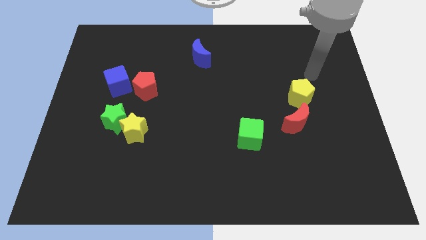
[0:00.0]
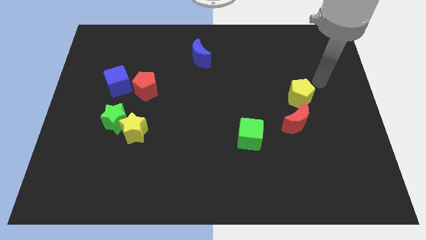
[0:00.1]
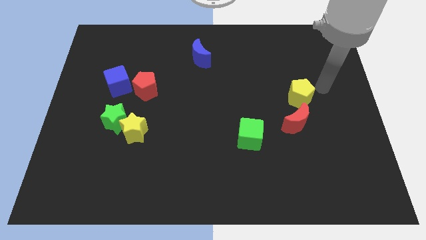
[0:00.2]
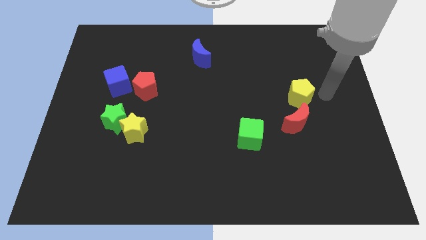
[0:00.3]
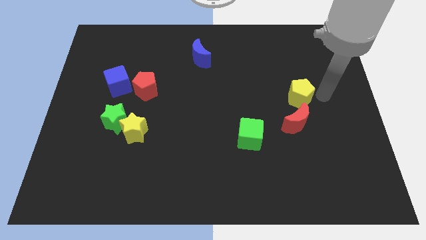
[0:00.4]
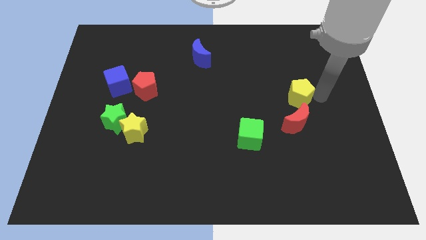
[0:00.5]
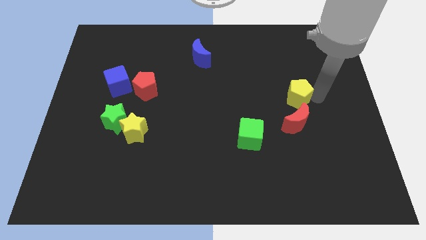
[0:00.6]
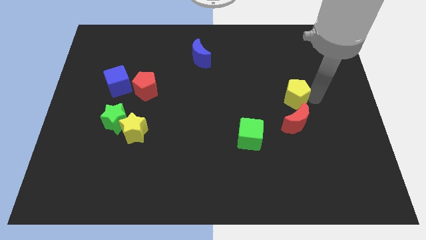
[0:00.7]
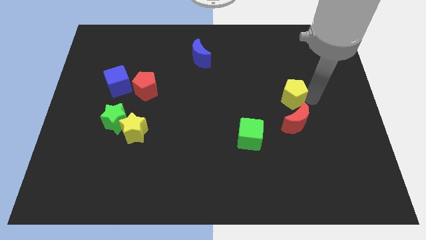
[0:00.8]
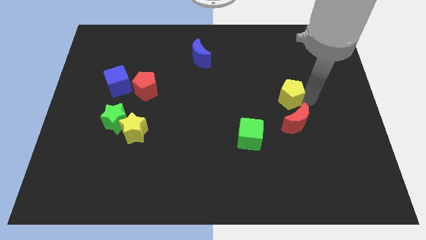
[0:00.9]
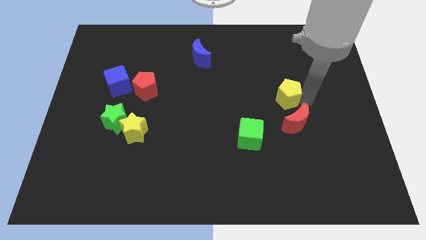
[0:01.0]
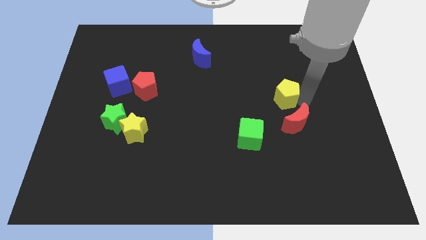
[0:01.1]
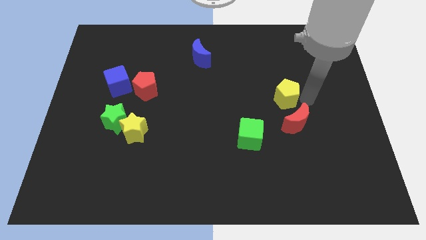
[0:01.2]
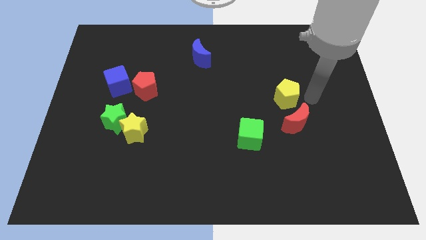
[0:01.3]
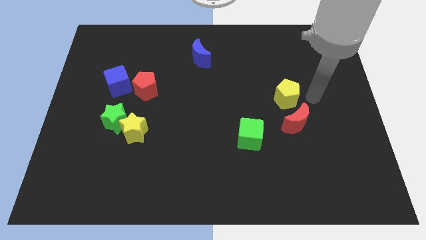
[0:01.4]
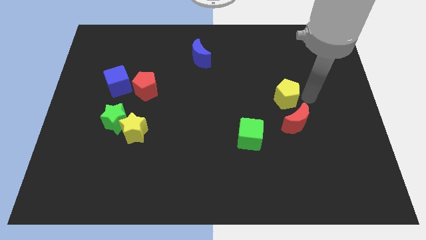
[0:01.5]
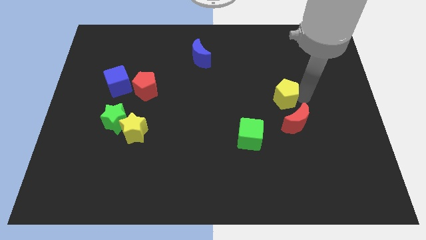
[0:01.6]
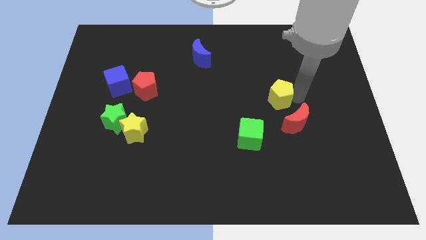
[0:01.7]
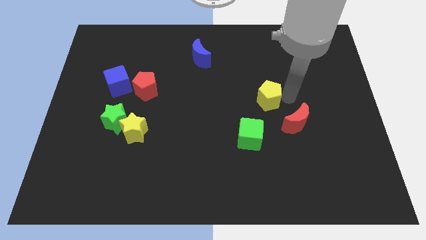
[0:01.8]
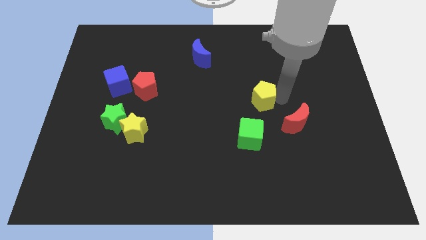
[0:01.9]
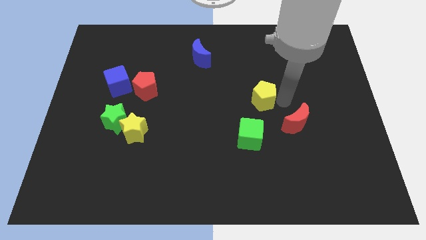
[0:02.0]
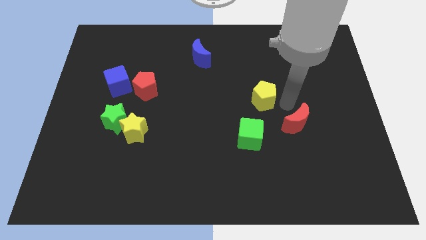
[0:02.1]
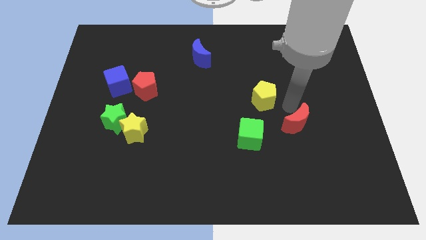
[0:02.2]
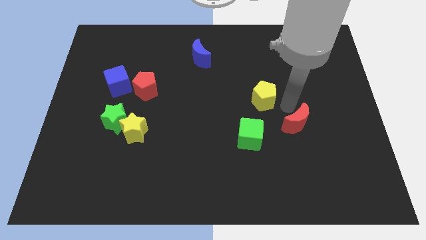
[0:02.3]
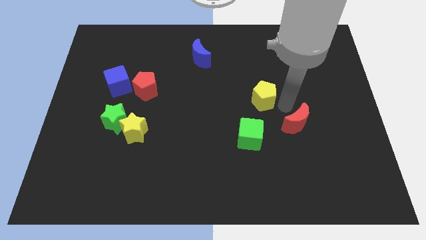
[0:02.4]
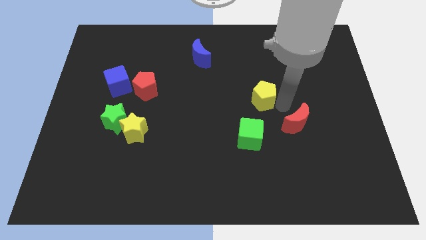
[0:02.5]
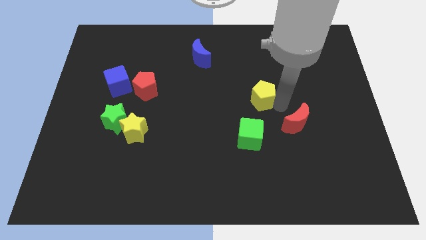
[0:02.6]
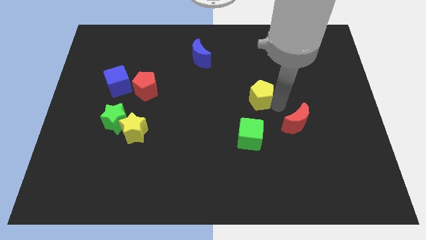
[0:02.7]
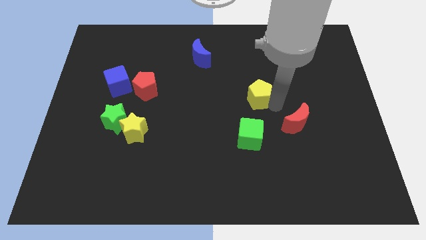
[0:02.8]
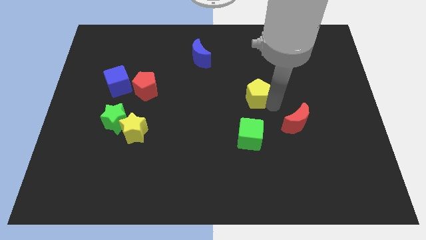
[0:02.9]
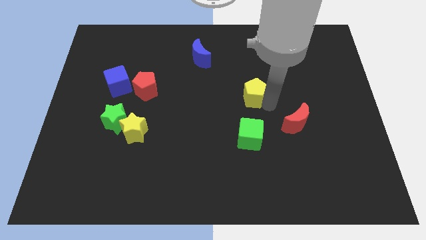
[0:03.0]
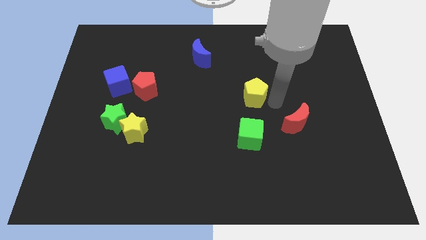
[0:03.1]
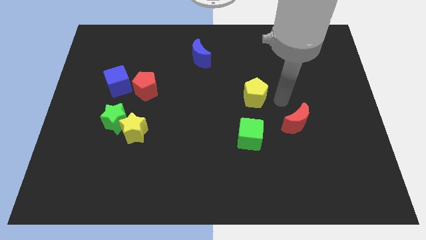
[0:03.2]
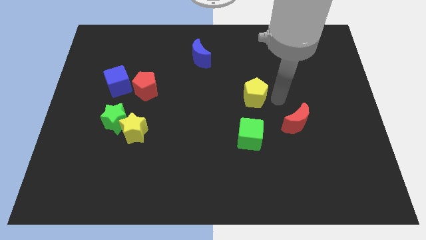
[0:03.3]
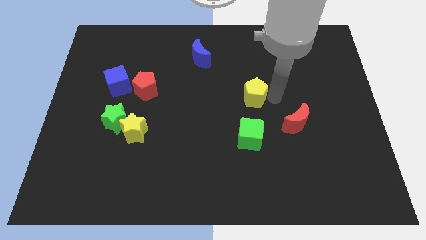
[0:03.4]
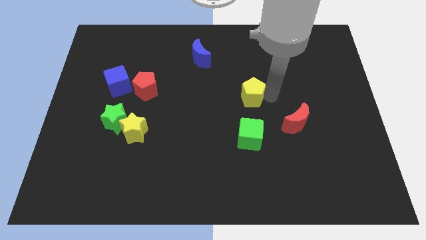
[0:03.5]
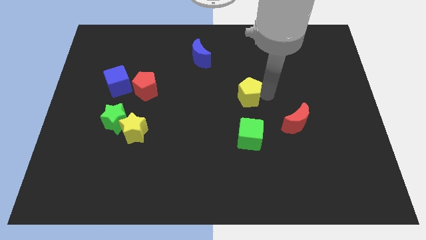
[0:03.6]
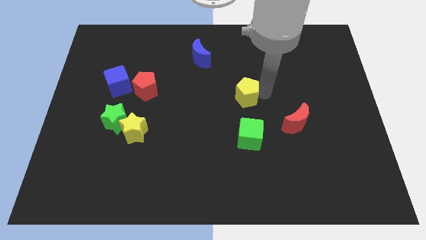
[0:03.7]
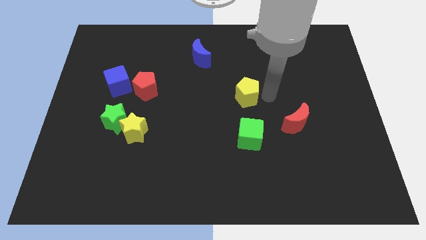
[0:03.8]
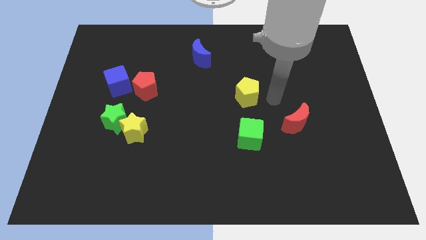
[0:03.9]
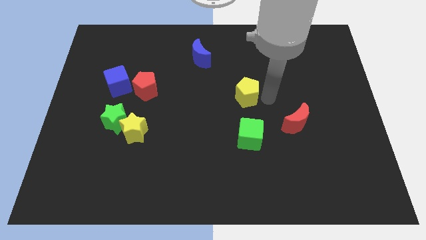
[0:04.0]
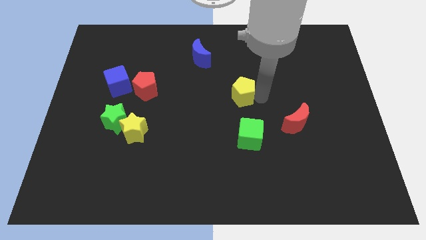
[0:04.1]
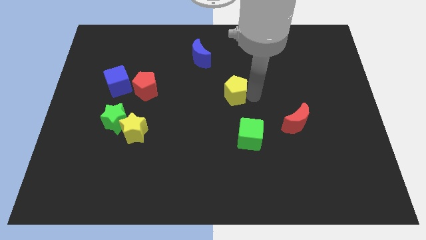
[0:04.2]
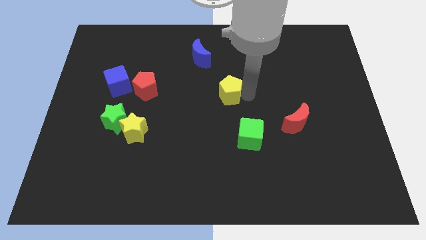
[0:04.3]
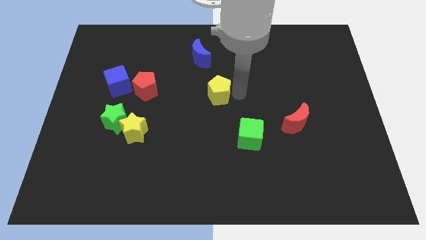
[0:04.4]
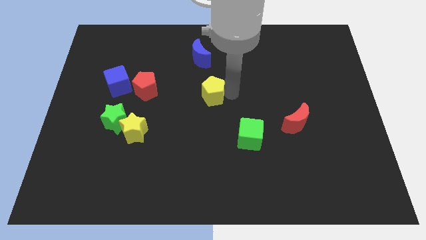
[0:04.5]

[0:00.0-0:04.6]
slide the yellow pentagon left

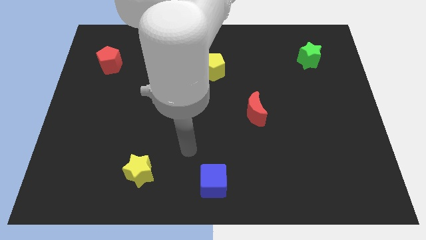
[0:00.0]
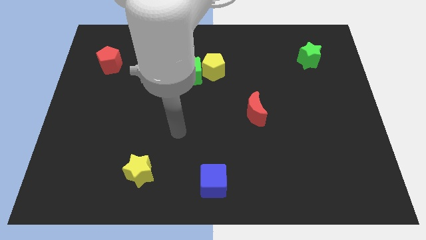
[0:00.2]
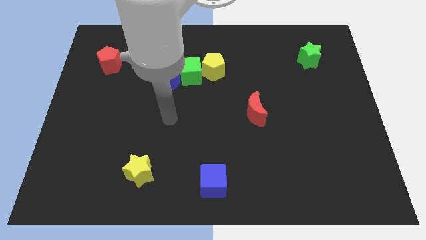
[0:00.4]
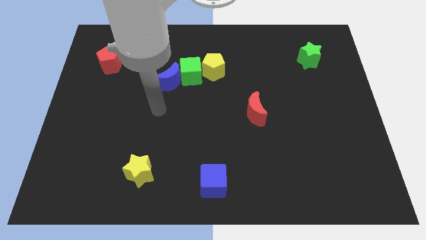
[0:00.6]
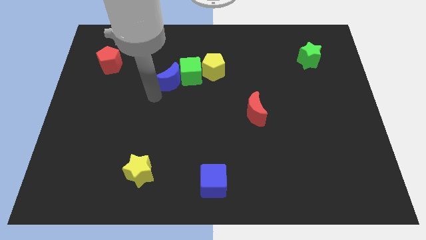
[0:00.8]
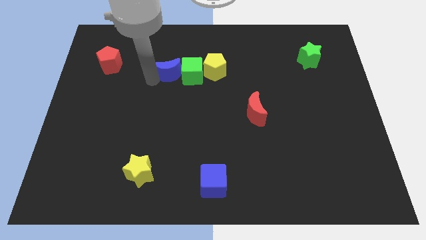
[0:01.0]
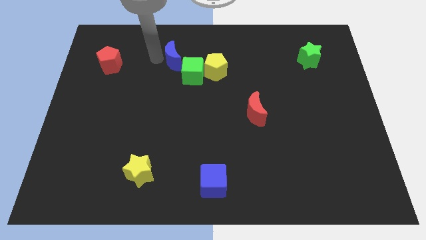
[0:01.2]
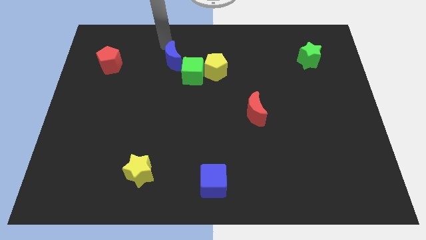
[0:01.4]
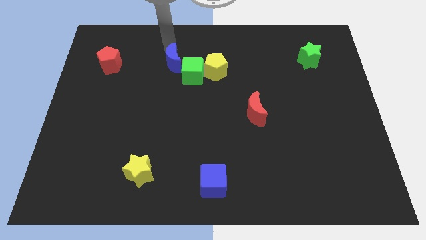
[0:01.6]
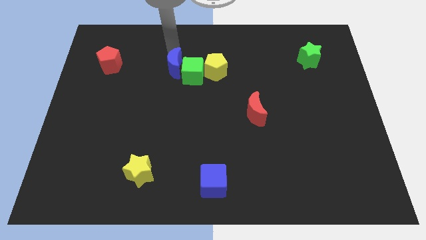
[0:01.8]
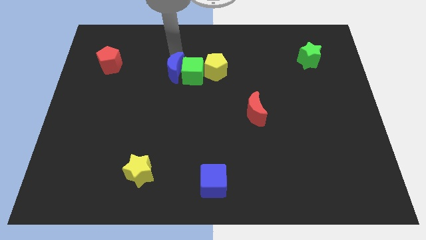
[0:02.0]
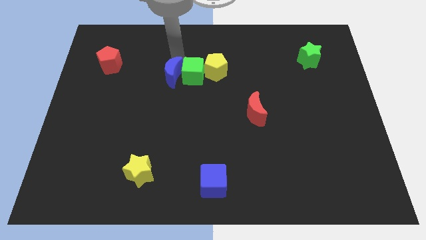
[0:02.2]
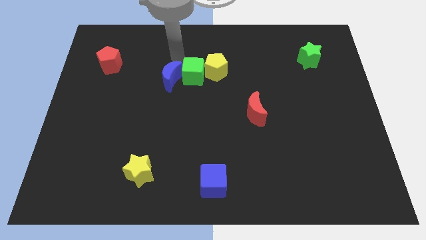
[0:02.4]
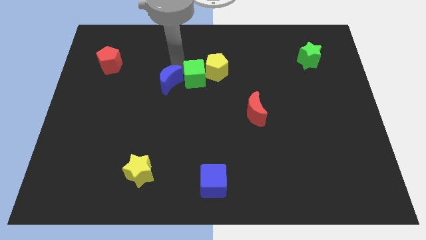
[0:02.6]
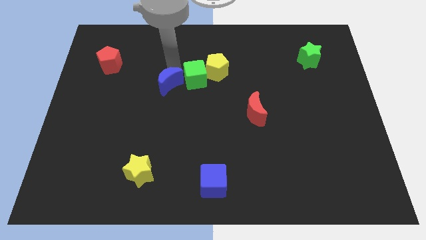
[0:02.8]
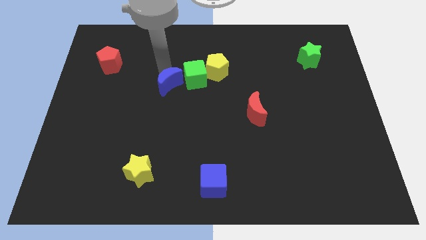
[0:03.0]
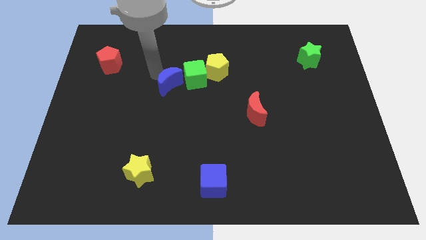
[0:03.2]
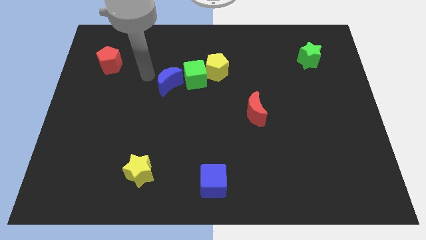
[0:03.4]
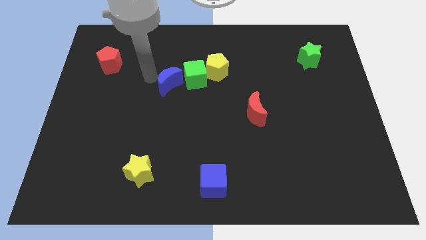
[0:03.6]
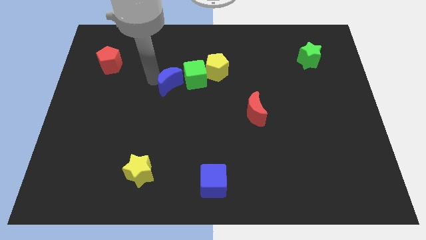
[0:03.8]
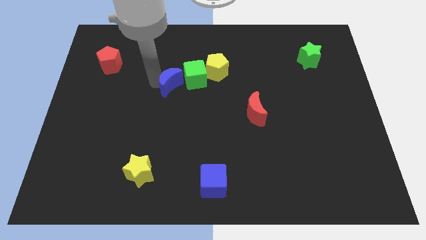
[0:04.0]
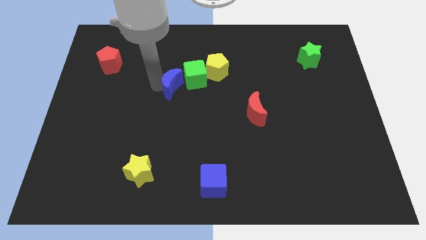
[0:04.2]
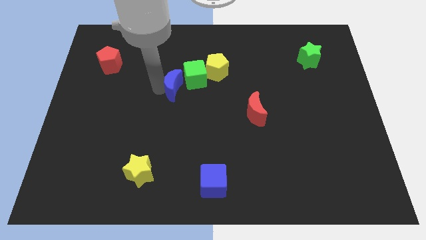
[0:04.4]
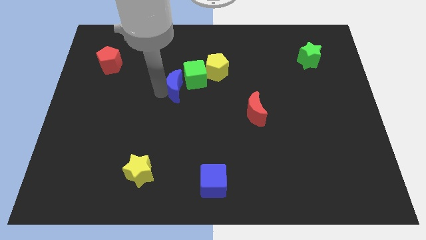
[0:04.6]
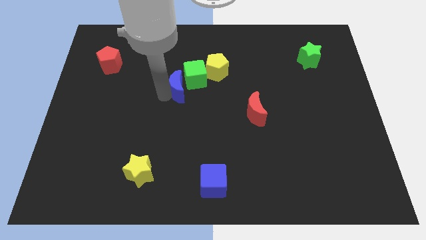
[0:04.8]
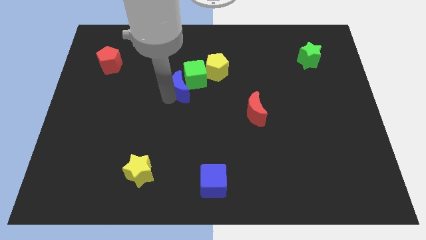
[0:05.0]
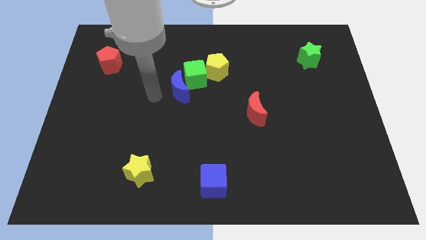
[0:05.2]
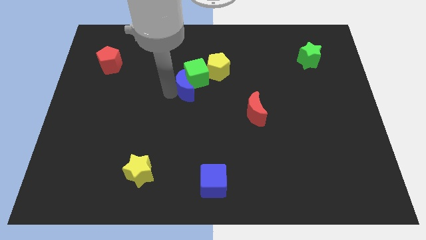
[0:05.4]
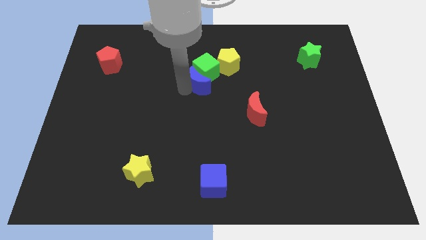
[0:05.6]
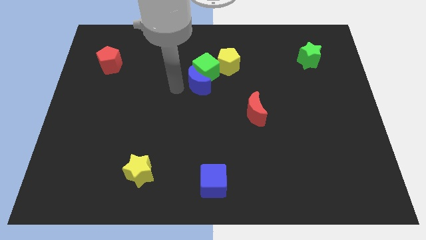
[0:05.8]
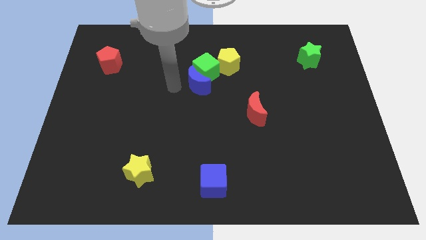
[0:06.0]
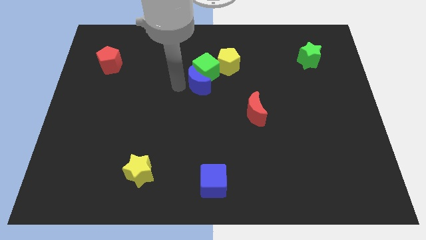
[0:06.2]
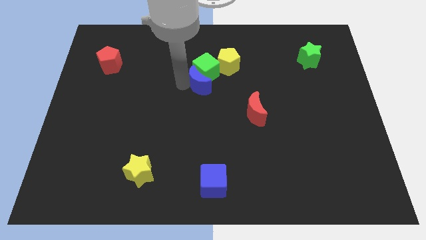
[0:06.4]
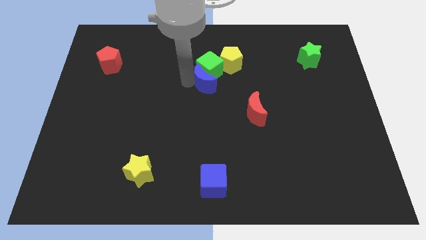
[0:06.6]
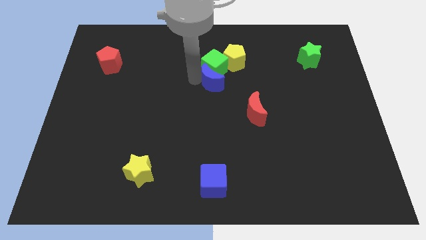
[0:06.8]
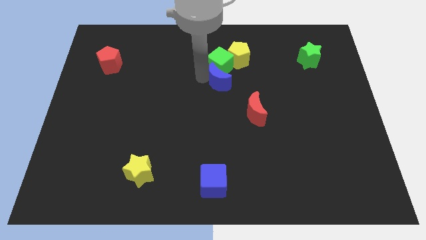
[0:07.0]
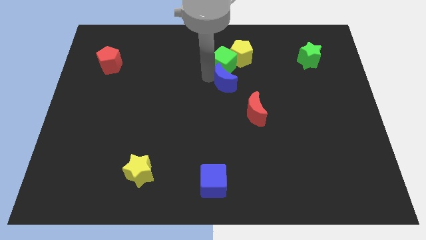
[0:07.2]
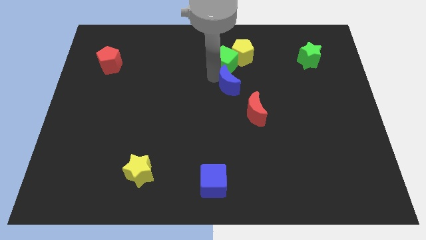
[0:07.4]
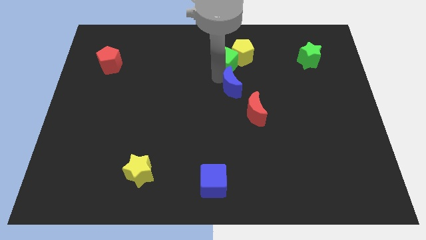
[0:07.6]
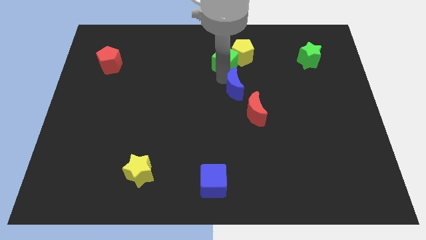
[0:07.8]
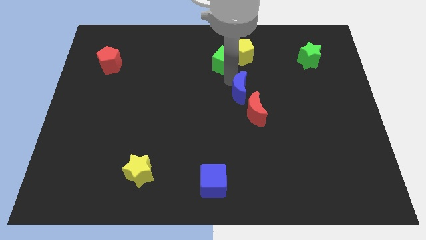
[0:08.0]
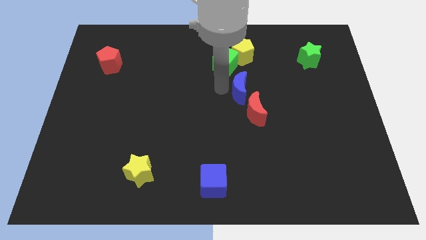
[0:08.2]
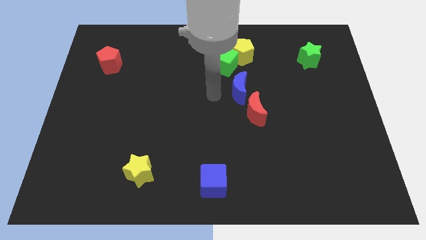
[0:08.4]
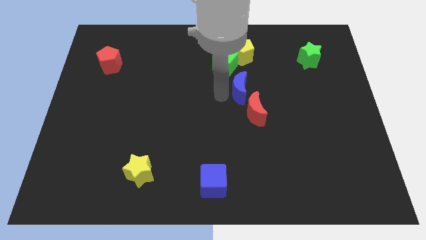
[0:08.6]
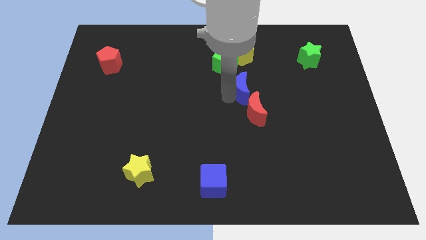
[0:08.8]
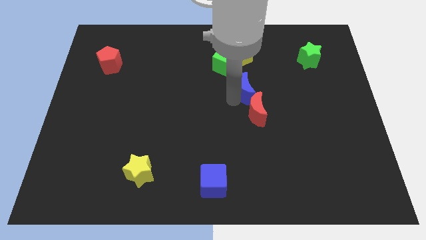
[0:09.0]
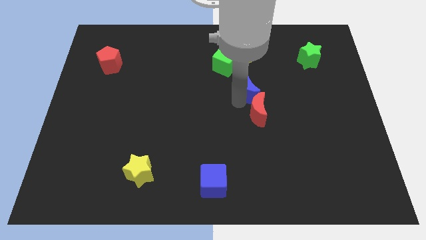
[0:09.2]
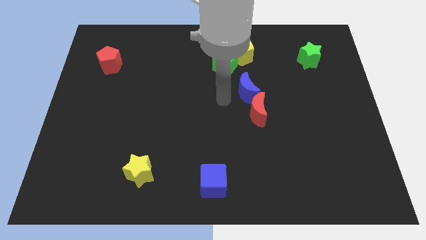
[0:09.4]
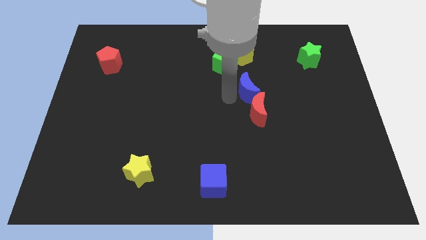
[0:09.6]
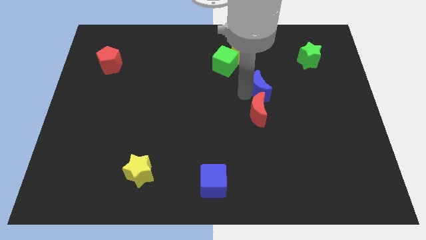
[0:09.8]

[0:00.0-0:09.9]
move the blue moon to the right
